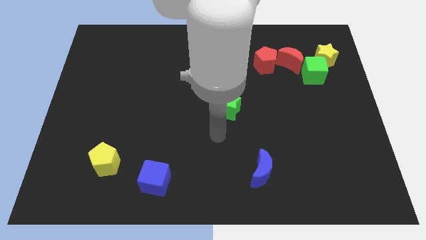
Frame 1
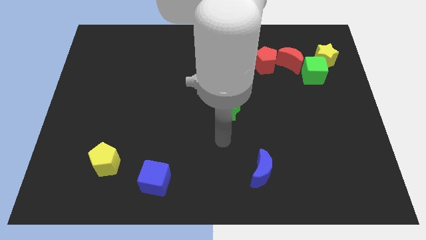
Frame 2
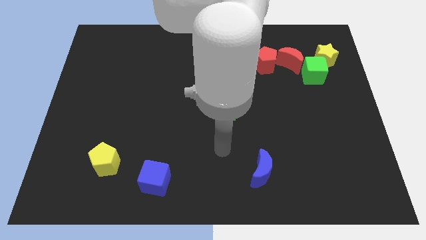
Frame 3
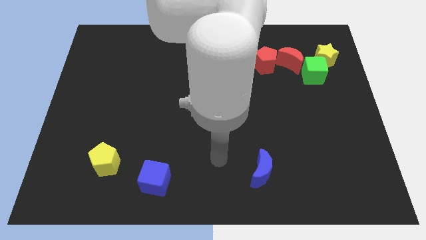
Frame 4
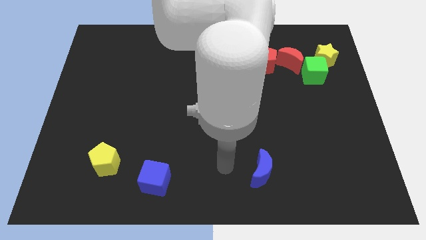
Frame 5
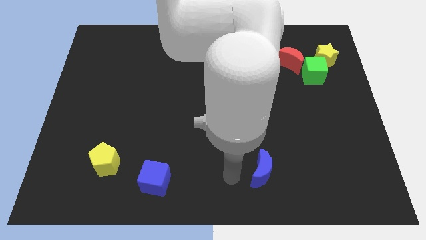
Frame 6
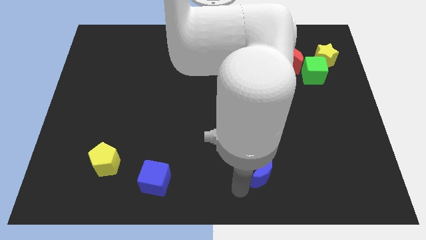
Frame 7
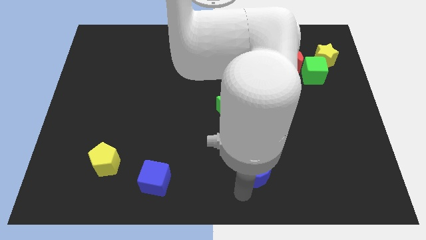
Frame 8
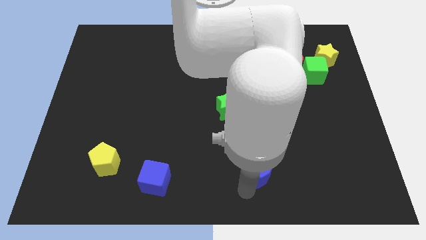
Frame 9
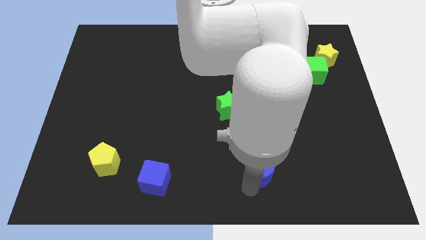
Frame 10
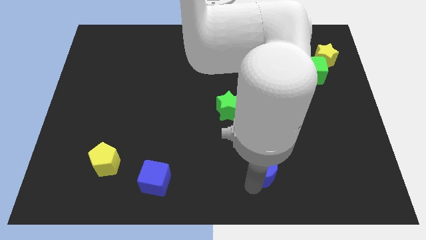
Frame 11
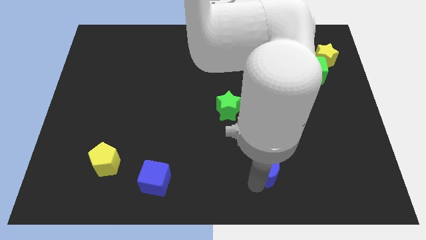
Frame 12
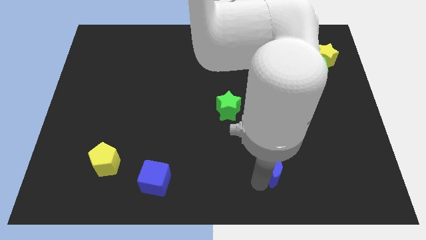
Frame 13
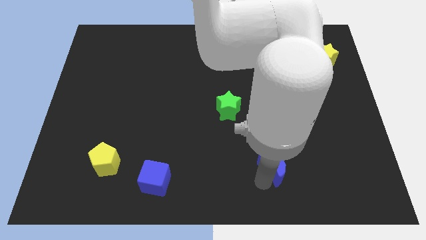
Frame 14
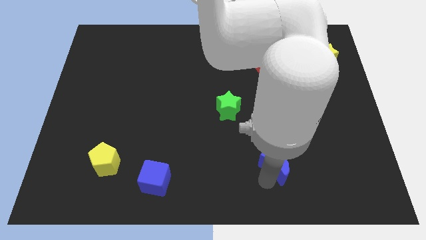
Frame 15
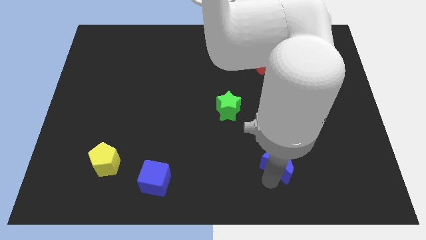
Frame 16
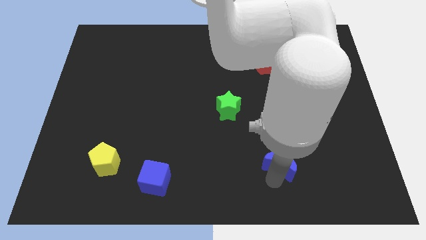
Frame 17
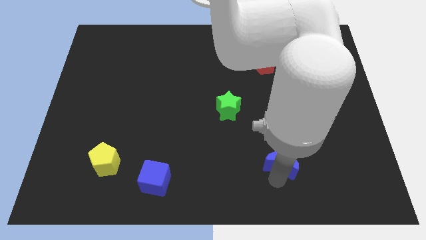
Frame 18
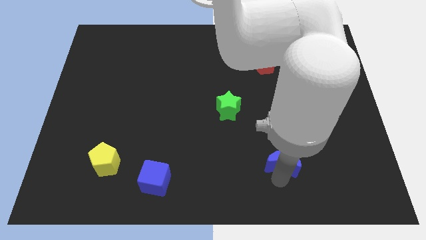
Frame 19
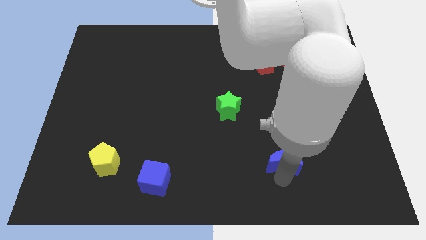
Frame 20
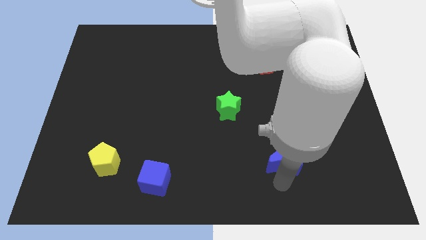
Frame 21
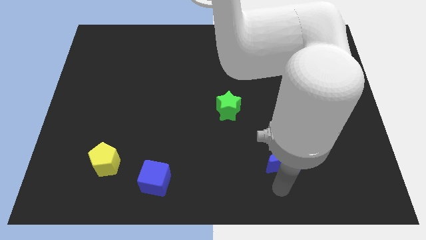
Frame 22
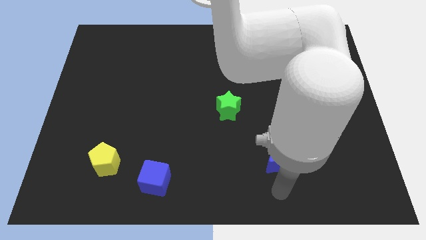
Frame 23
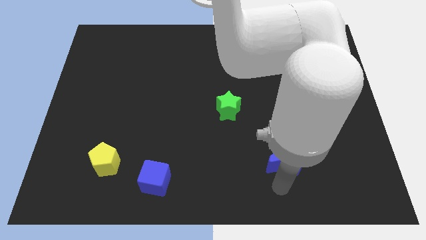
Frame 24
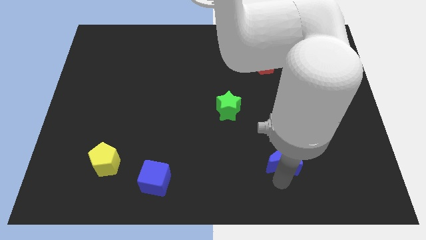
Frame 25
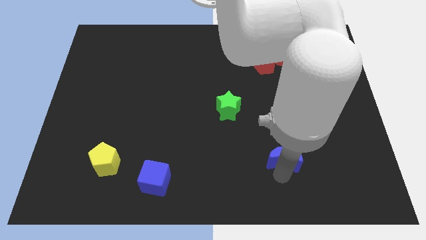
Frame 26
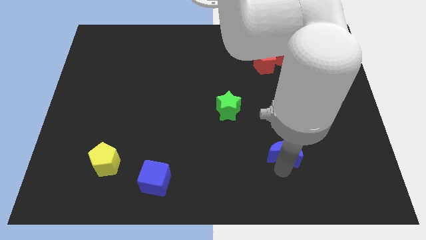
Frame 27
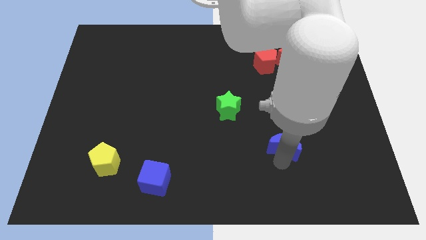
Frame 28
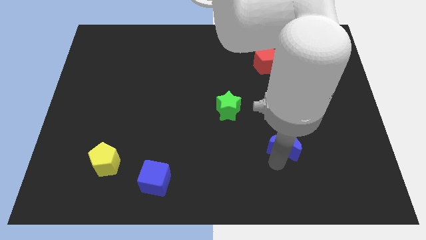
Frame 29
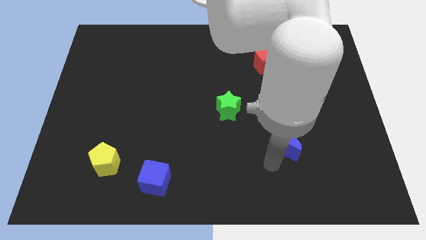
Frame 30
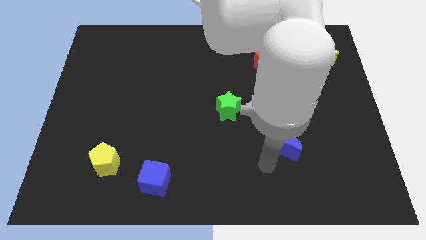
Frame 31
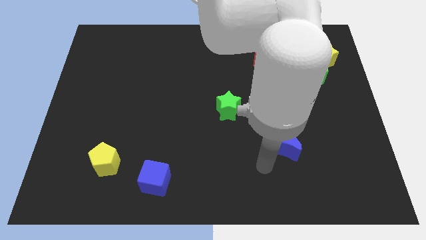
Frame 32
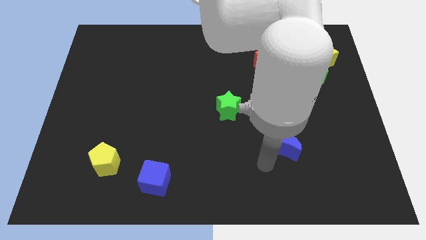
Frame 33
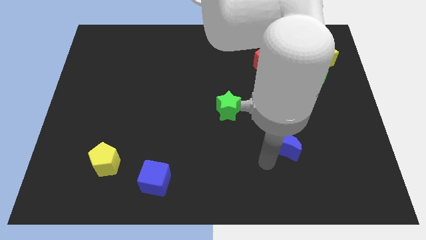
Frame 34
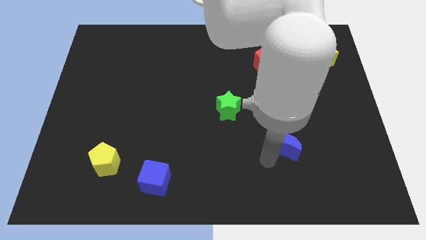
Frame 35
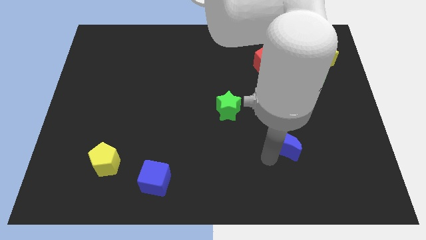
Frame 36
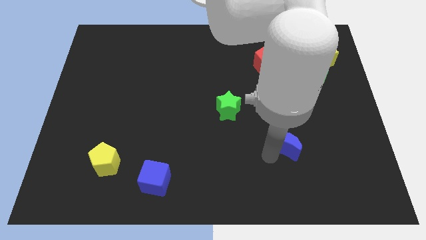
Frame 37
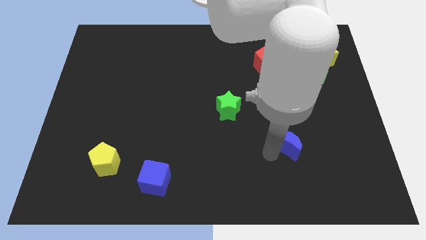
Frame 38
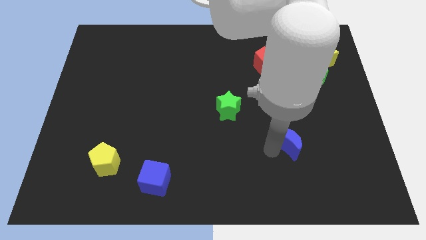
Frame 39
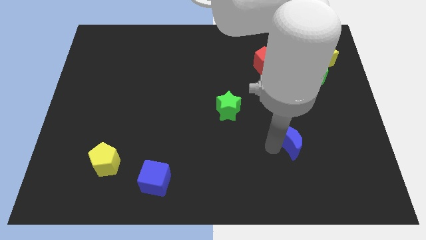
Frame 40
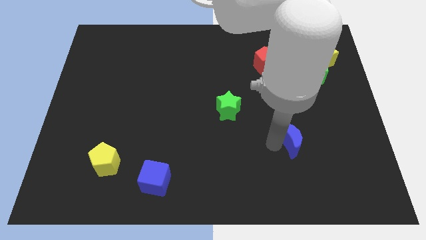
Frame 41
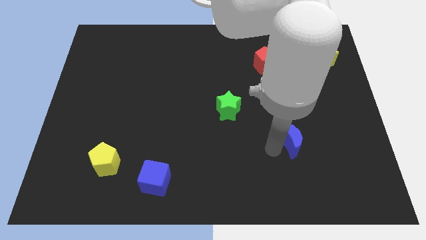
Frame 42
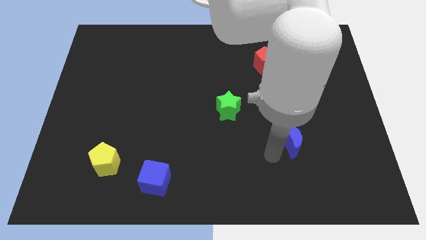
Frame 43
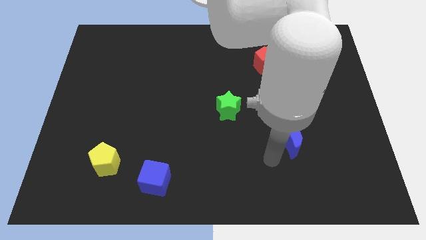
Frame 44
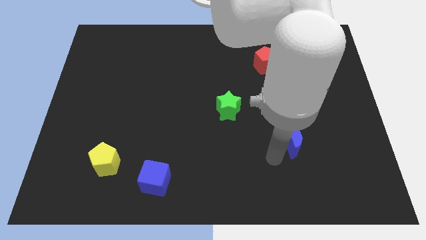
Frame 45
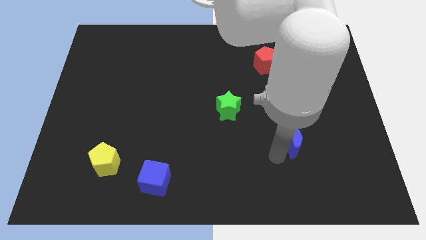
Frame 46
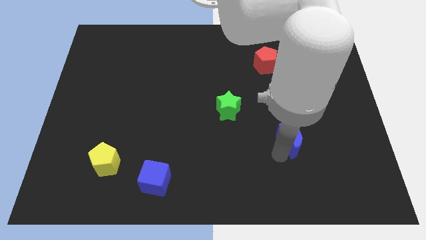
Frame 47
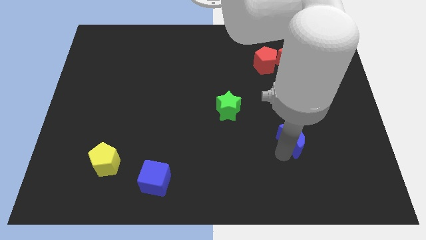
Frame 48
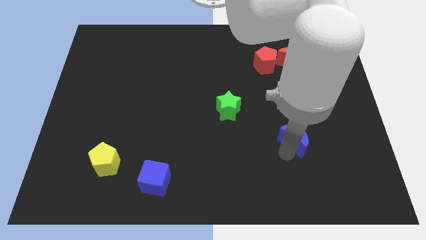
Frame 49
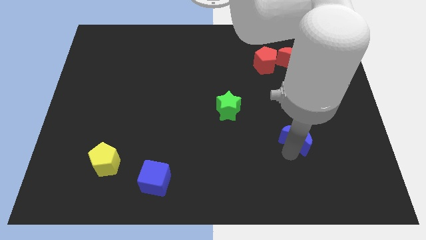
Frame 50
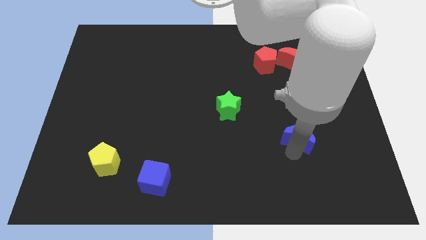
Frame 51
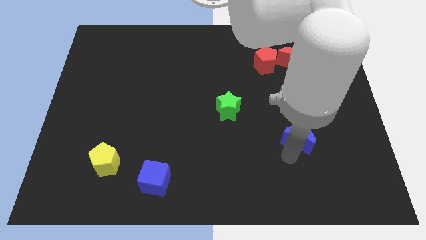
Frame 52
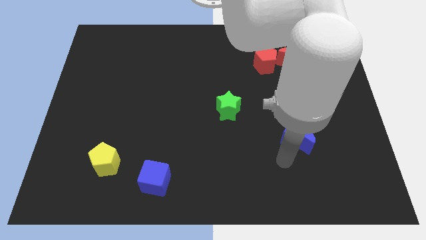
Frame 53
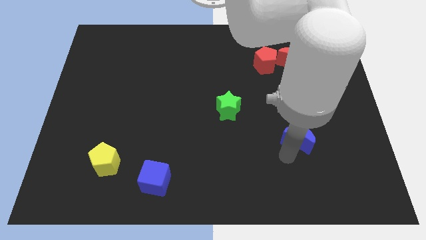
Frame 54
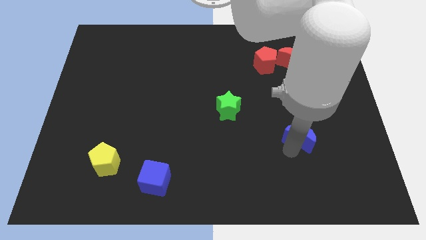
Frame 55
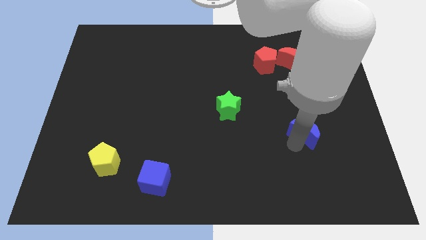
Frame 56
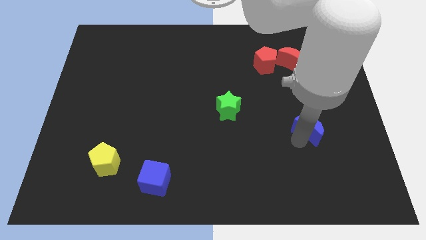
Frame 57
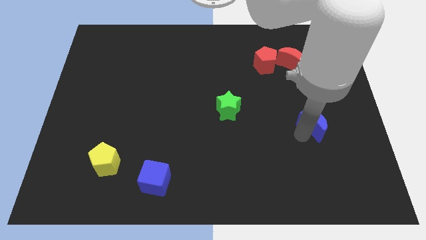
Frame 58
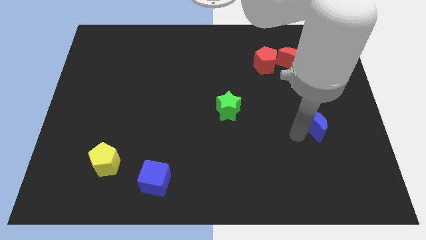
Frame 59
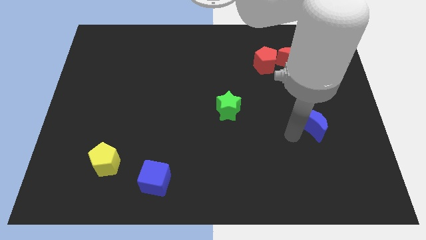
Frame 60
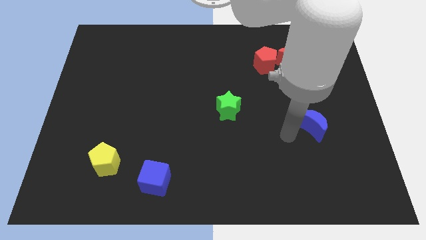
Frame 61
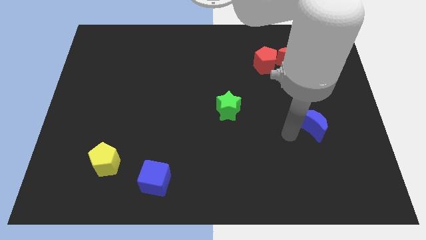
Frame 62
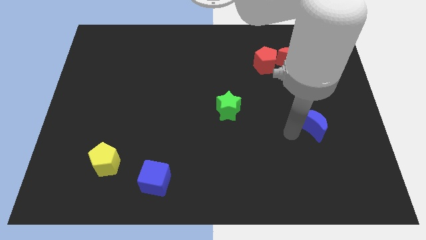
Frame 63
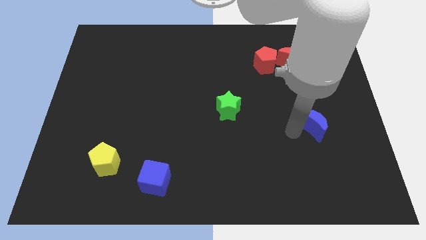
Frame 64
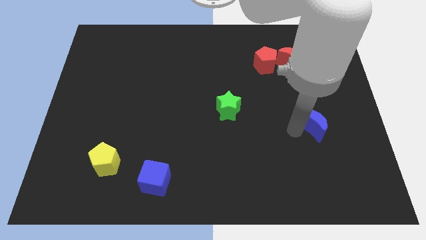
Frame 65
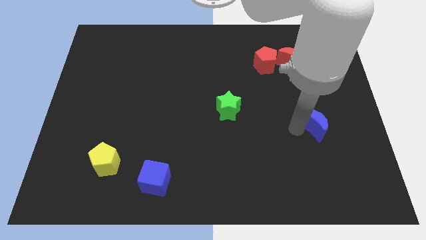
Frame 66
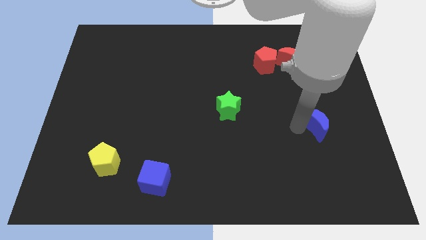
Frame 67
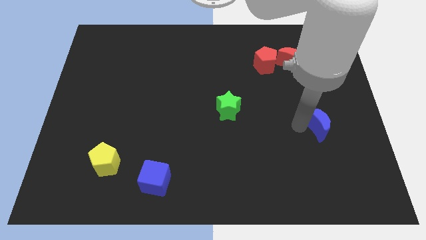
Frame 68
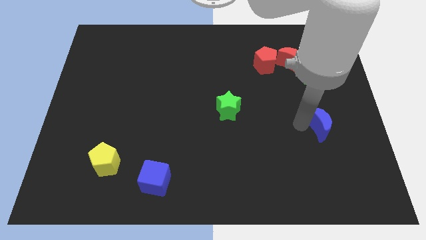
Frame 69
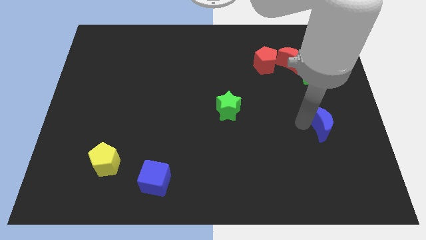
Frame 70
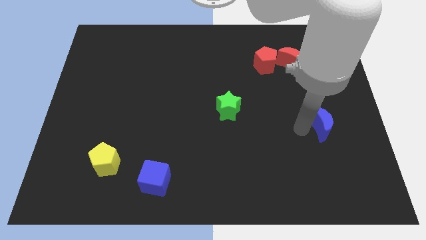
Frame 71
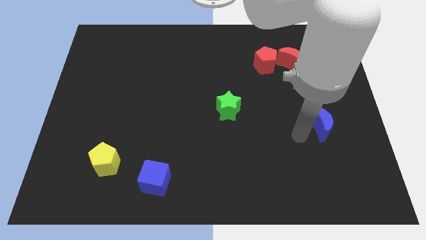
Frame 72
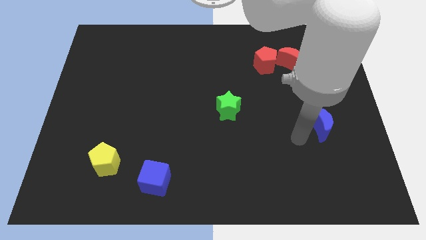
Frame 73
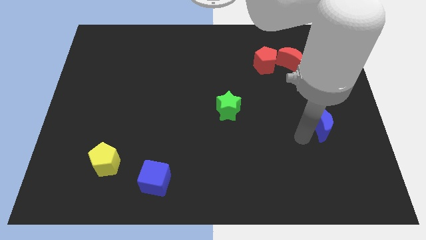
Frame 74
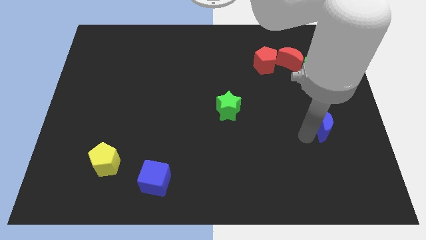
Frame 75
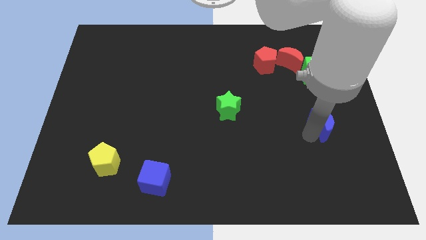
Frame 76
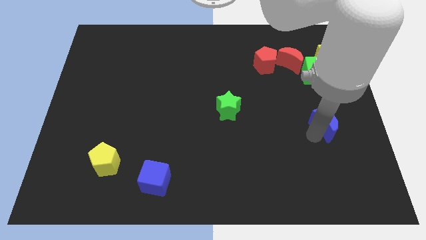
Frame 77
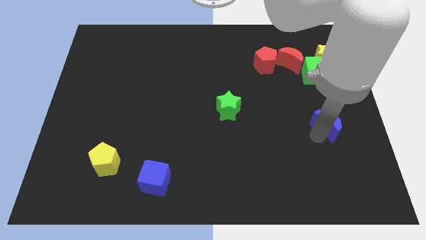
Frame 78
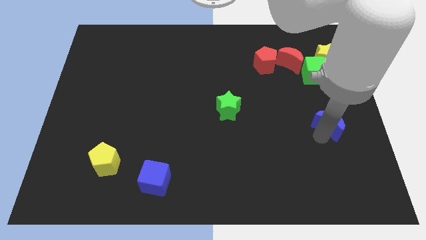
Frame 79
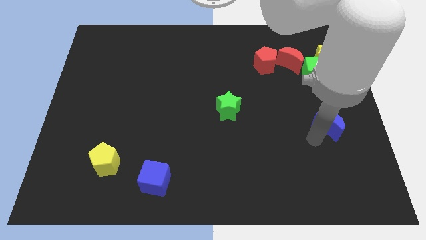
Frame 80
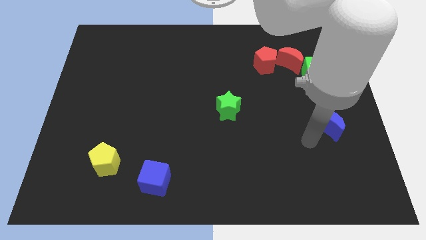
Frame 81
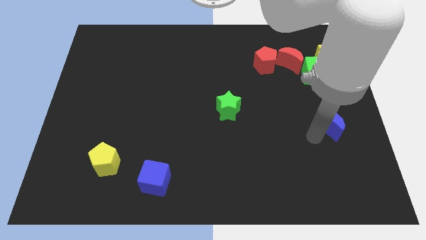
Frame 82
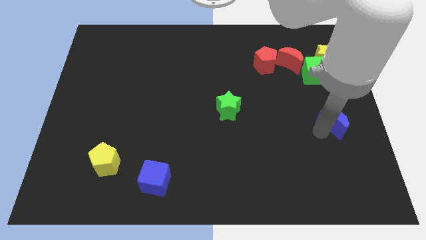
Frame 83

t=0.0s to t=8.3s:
put the blue moon to the center right
